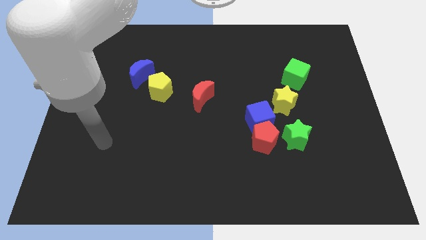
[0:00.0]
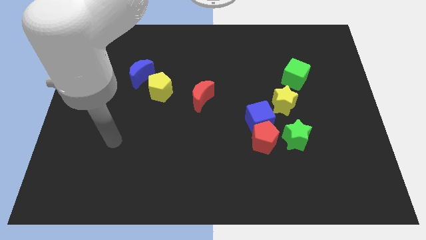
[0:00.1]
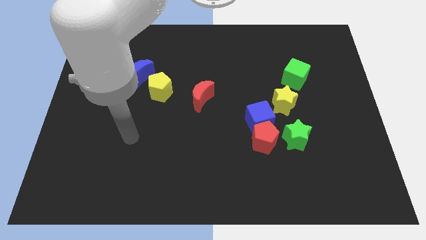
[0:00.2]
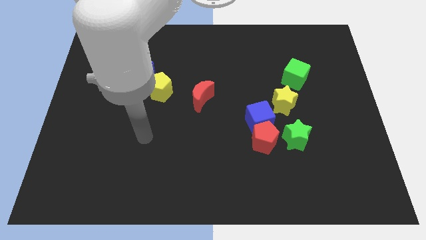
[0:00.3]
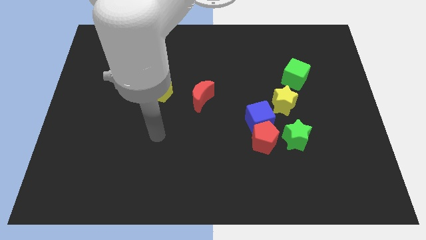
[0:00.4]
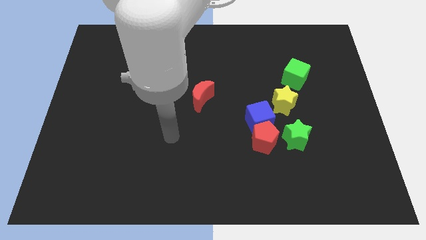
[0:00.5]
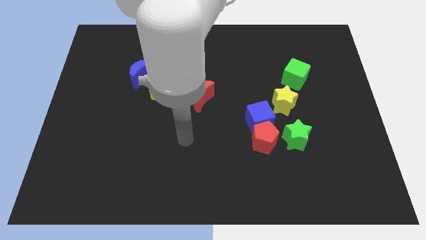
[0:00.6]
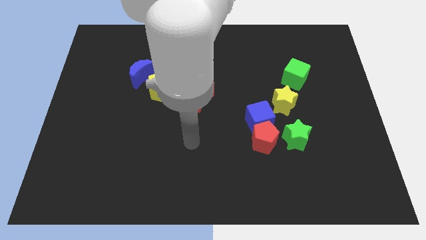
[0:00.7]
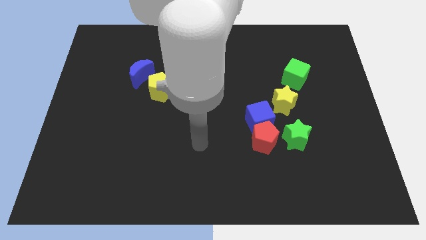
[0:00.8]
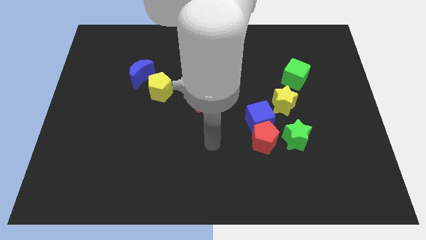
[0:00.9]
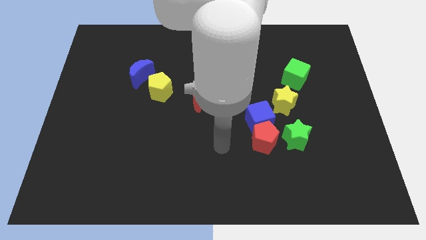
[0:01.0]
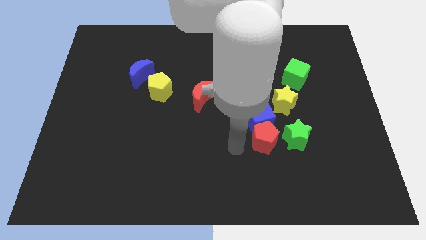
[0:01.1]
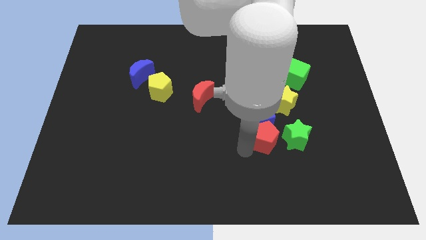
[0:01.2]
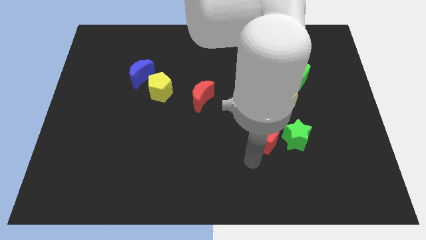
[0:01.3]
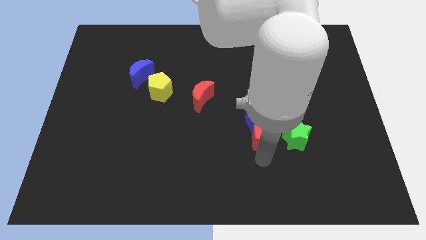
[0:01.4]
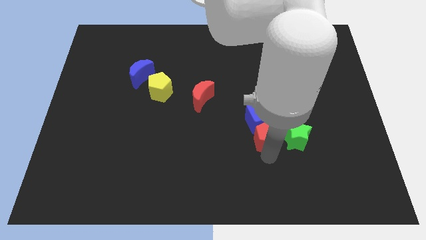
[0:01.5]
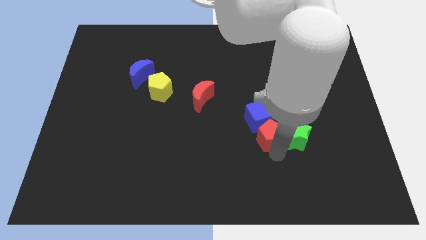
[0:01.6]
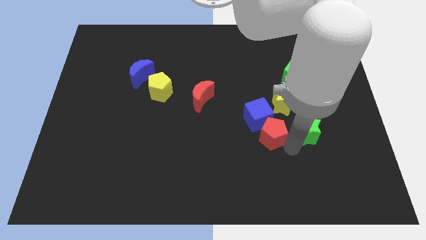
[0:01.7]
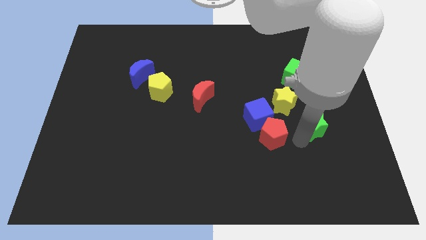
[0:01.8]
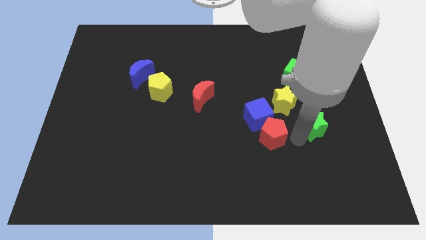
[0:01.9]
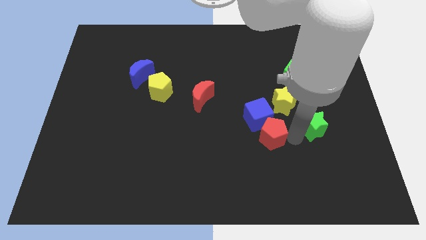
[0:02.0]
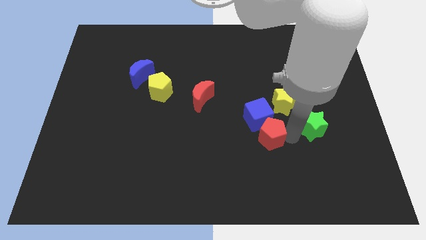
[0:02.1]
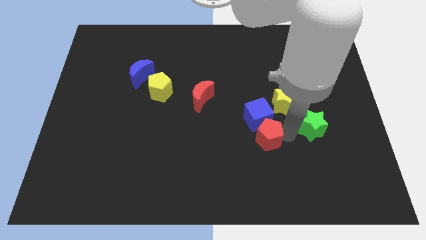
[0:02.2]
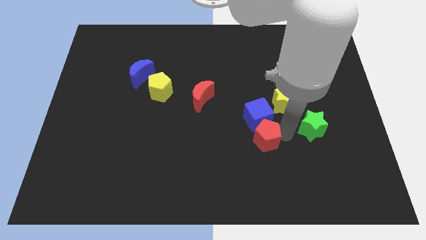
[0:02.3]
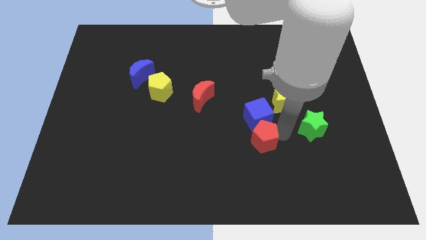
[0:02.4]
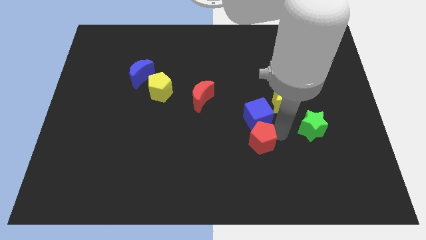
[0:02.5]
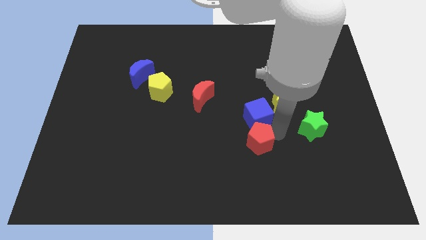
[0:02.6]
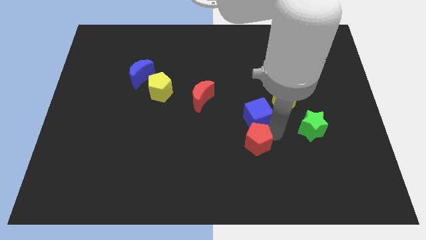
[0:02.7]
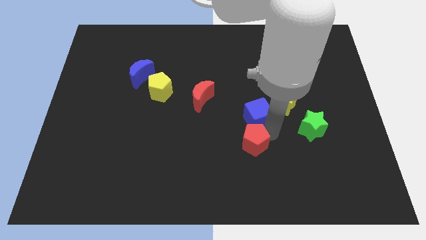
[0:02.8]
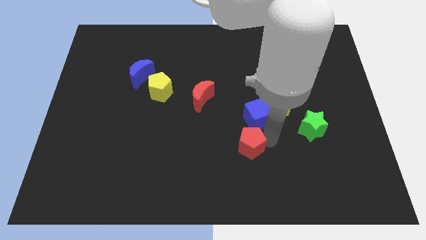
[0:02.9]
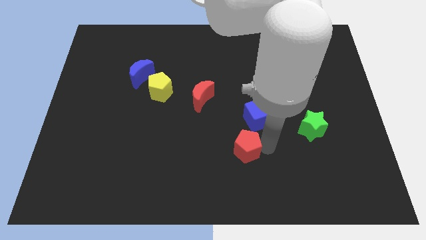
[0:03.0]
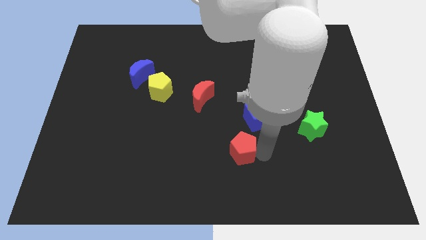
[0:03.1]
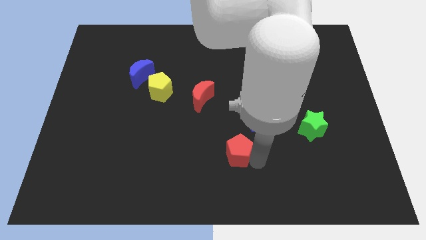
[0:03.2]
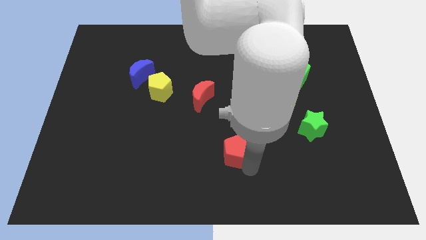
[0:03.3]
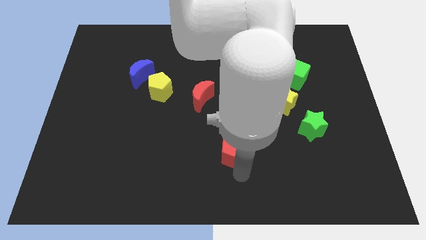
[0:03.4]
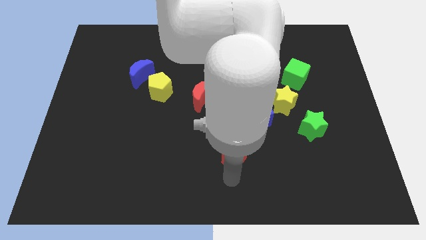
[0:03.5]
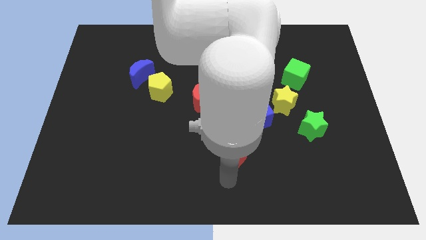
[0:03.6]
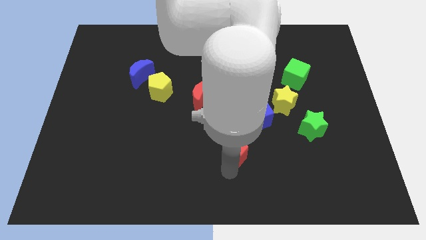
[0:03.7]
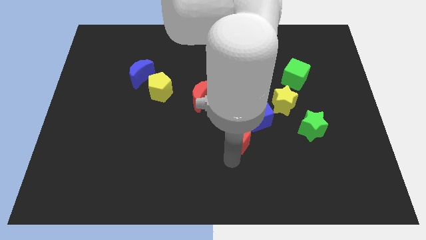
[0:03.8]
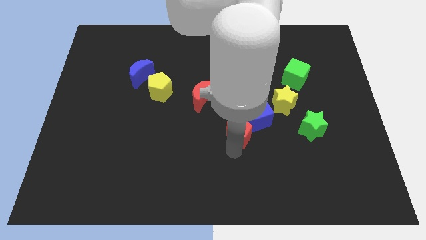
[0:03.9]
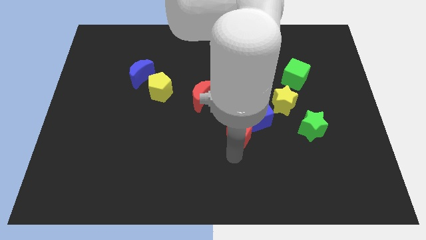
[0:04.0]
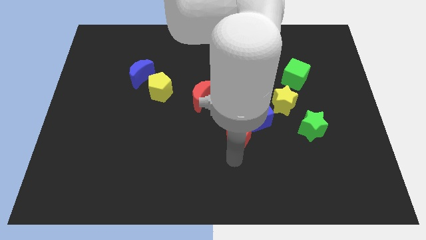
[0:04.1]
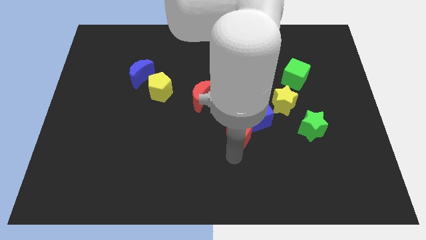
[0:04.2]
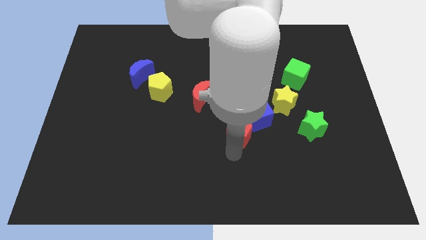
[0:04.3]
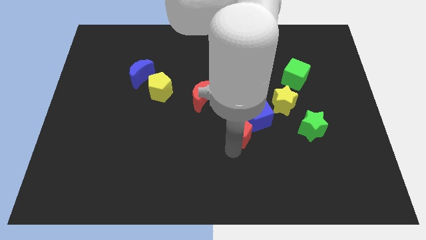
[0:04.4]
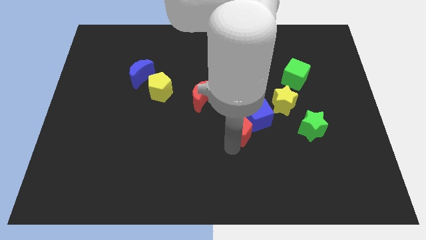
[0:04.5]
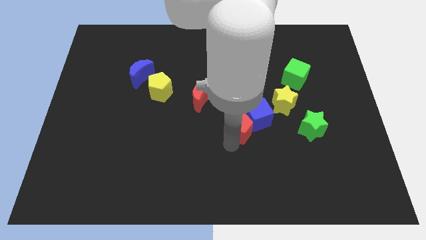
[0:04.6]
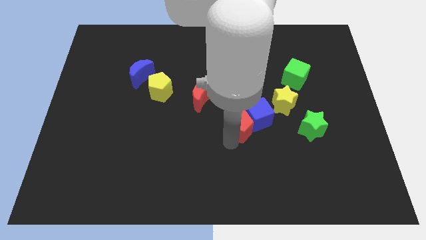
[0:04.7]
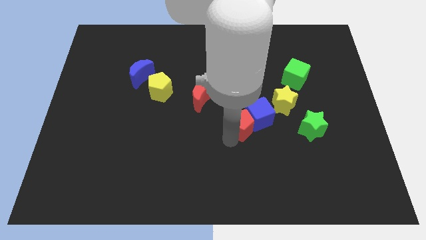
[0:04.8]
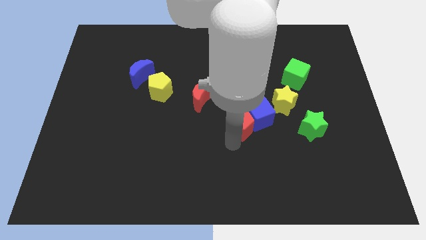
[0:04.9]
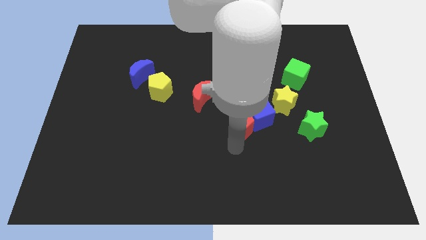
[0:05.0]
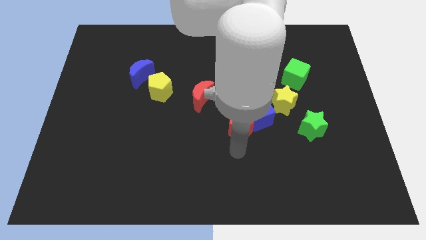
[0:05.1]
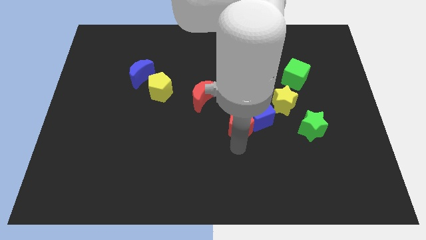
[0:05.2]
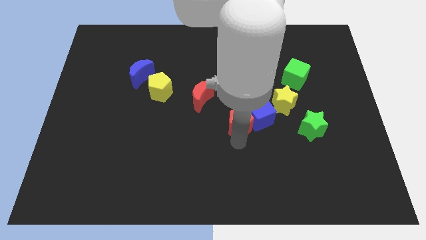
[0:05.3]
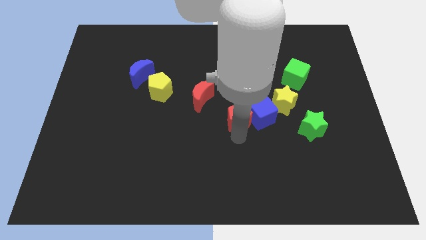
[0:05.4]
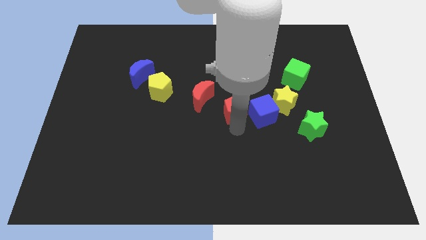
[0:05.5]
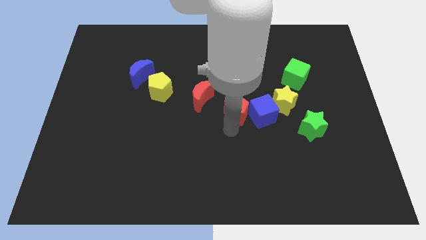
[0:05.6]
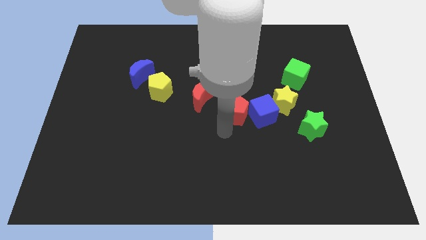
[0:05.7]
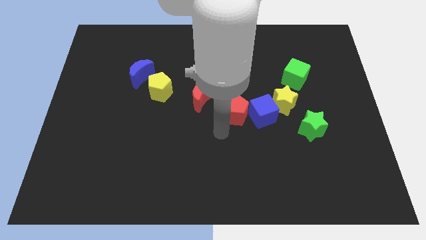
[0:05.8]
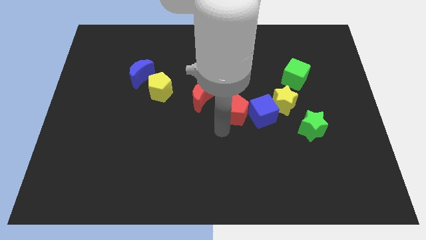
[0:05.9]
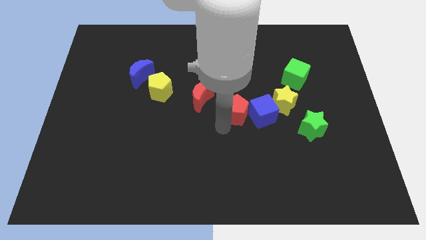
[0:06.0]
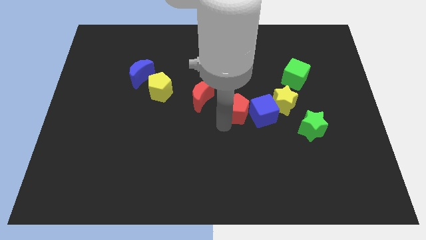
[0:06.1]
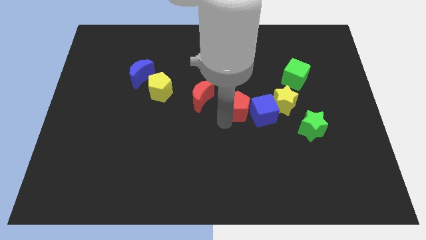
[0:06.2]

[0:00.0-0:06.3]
slightly slide the red pentagon up

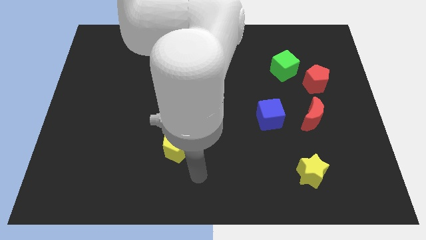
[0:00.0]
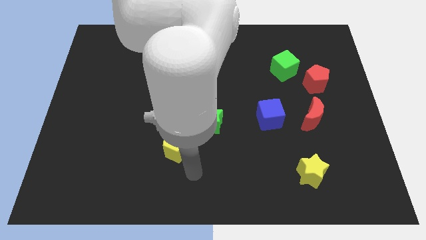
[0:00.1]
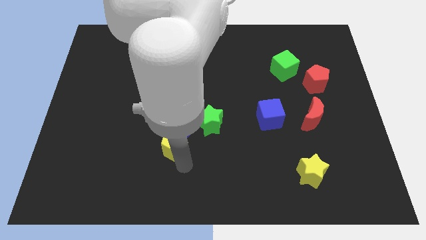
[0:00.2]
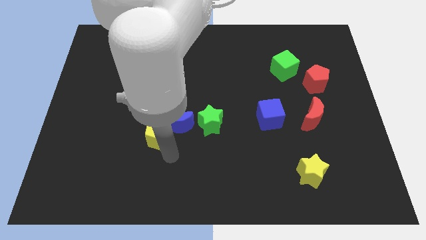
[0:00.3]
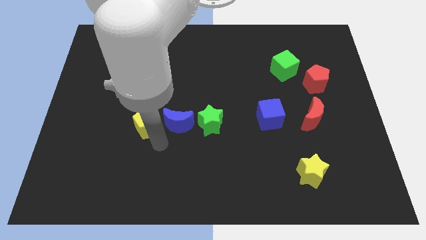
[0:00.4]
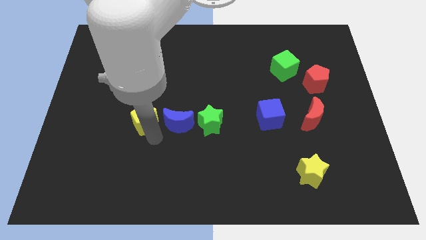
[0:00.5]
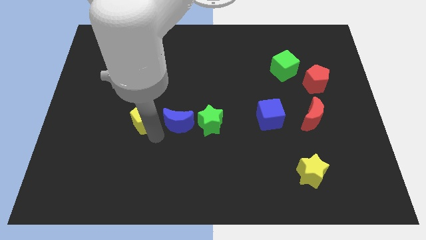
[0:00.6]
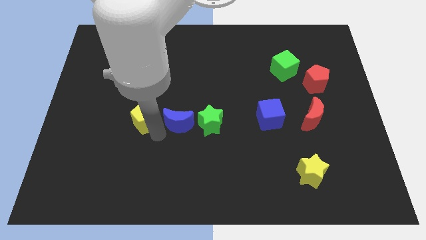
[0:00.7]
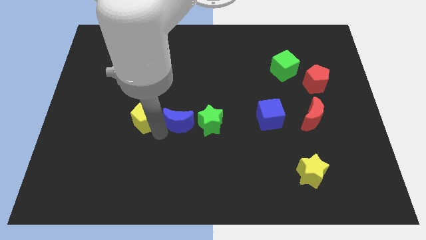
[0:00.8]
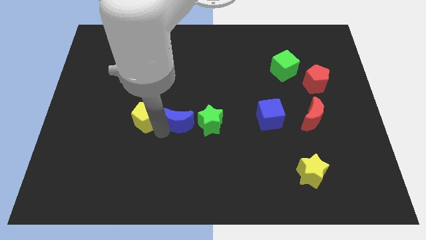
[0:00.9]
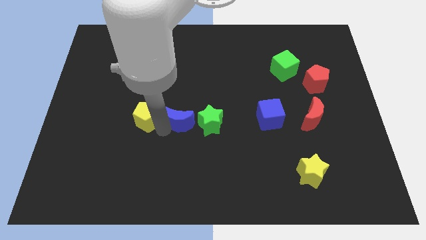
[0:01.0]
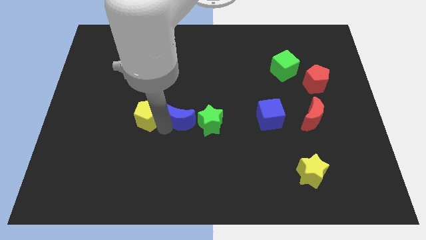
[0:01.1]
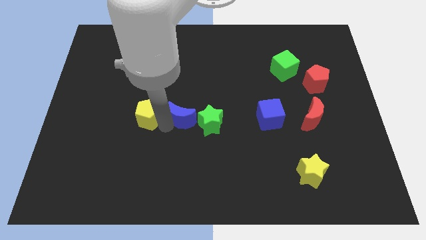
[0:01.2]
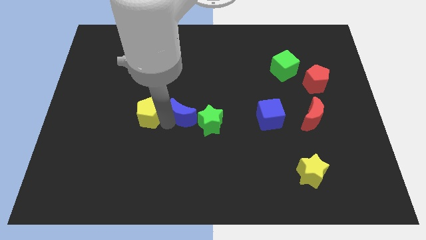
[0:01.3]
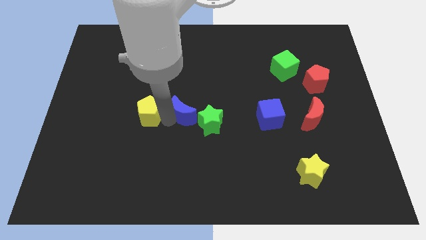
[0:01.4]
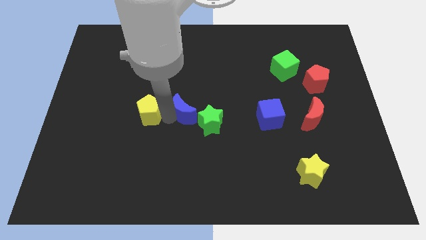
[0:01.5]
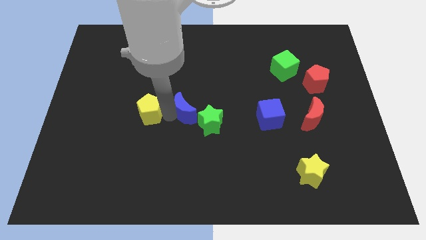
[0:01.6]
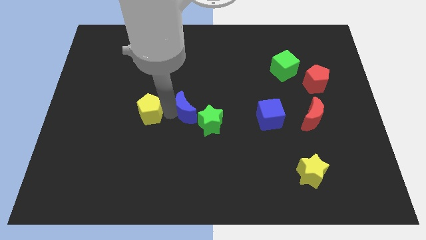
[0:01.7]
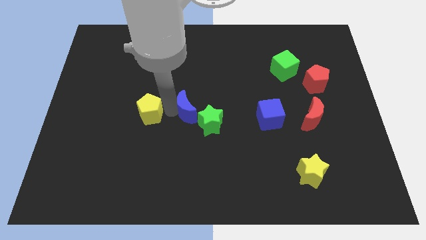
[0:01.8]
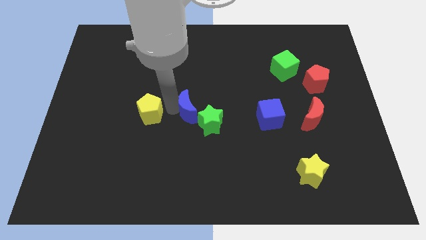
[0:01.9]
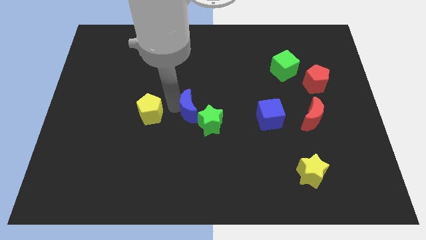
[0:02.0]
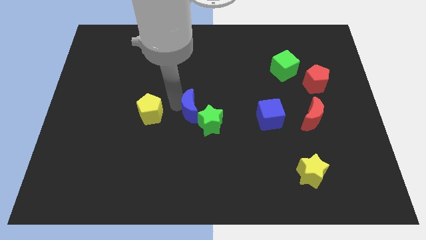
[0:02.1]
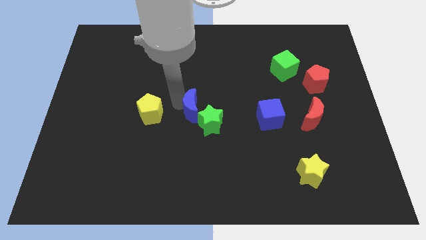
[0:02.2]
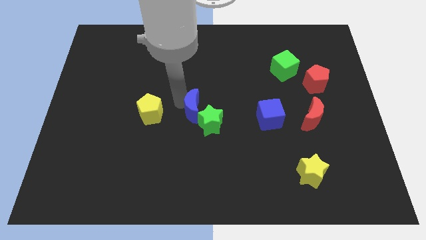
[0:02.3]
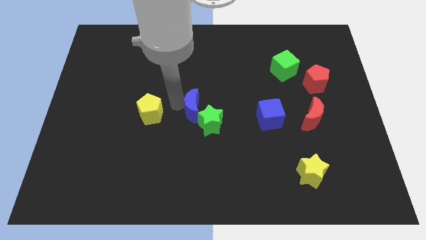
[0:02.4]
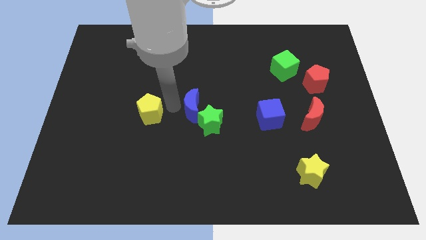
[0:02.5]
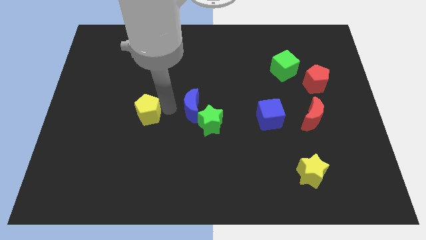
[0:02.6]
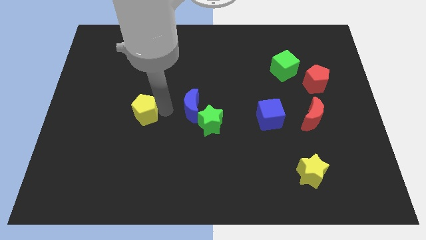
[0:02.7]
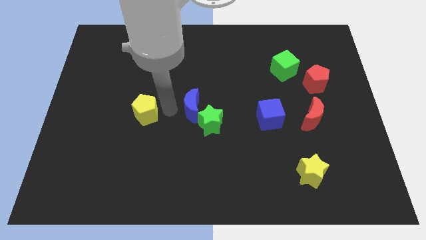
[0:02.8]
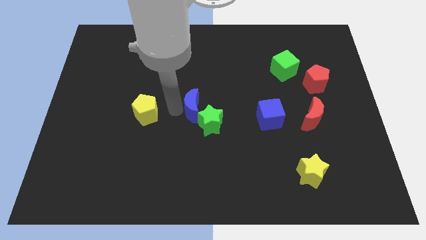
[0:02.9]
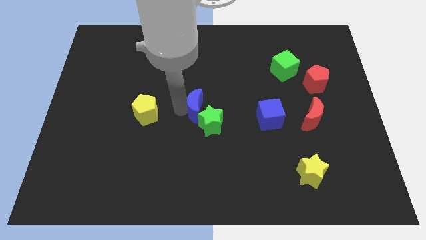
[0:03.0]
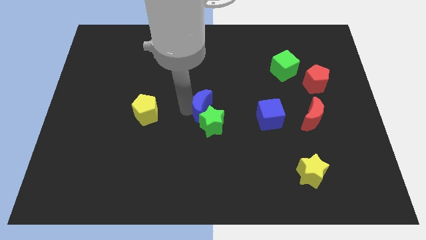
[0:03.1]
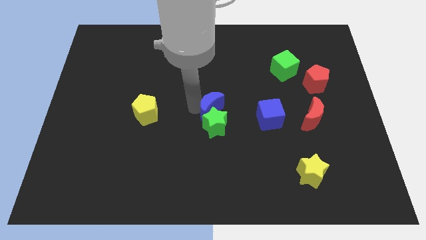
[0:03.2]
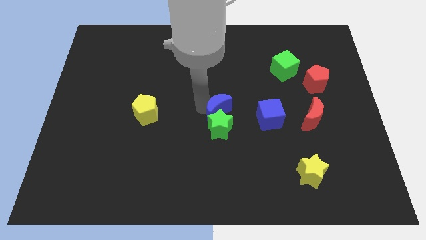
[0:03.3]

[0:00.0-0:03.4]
move the blue moon a little right
